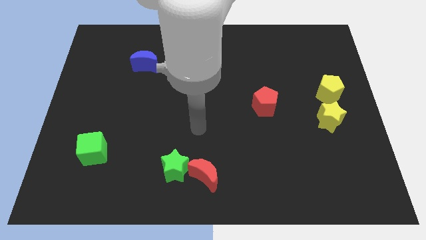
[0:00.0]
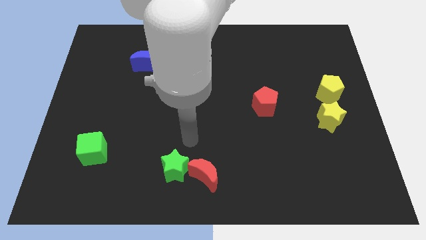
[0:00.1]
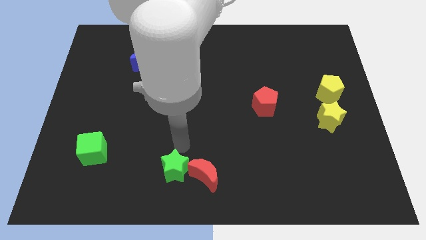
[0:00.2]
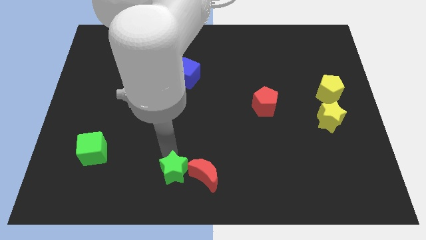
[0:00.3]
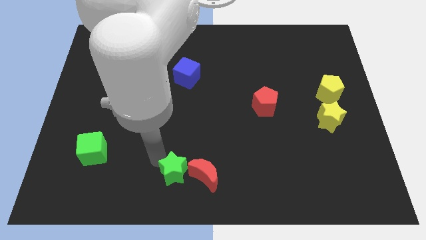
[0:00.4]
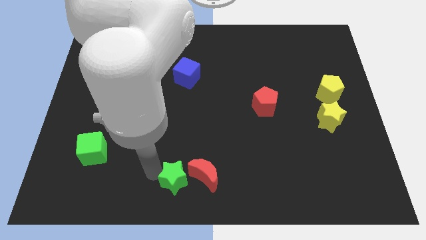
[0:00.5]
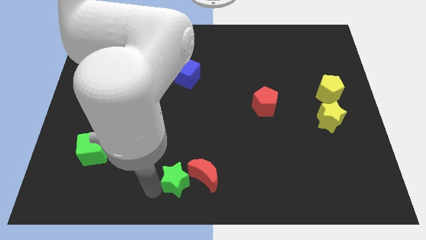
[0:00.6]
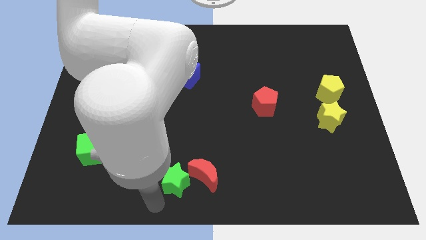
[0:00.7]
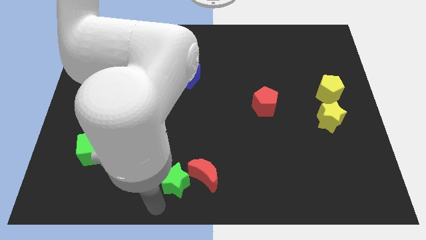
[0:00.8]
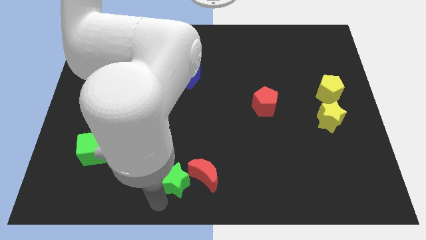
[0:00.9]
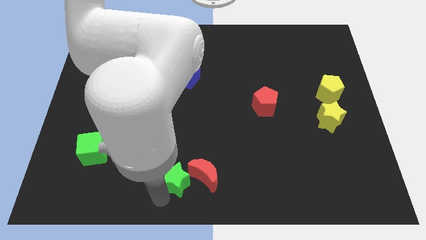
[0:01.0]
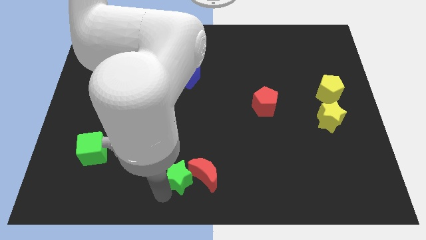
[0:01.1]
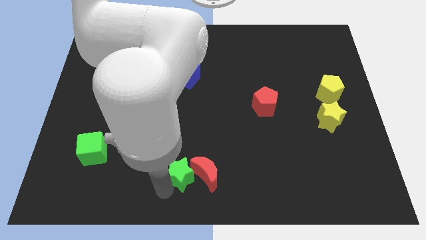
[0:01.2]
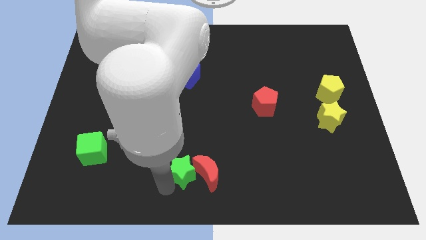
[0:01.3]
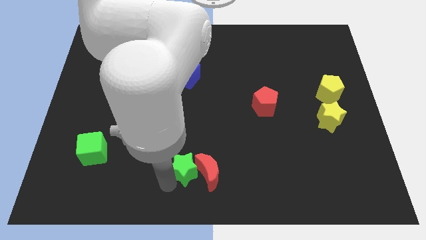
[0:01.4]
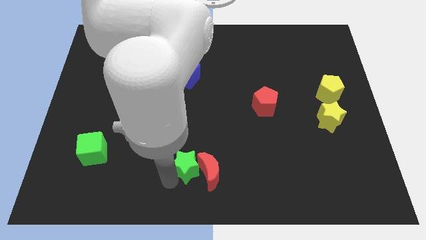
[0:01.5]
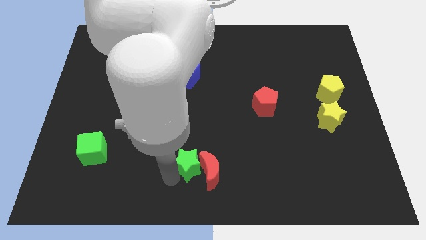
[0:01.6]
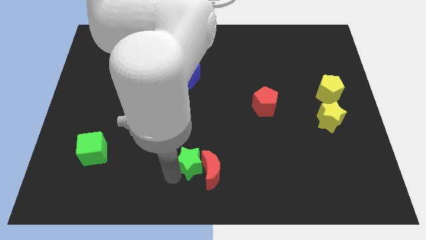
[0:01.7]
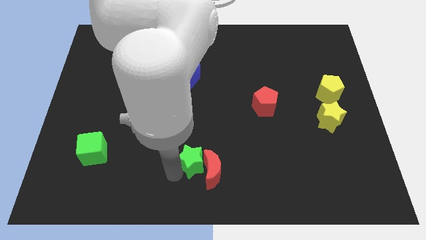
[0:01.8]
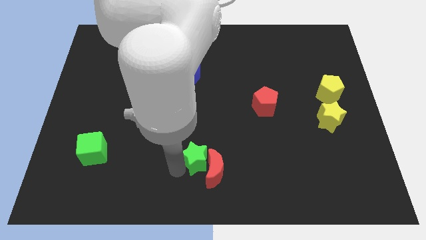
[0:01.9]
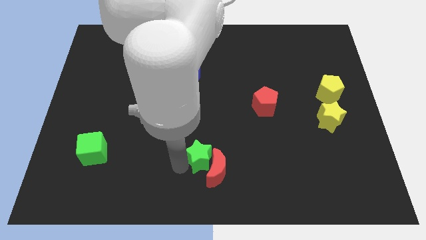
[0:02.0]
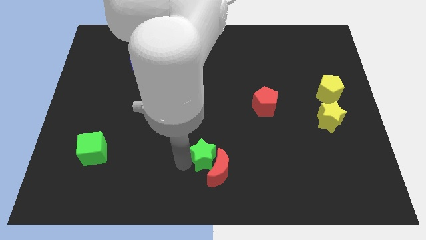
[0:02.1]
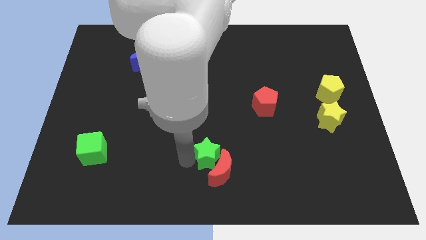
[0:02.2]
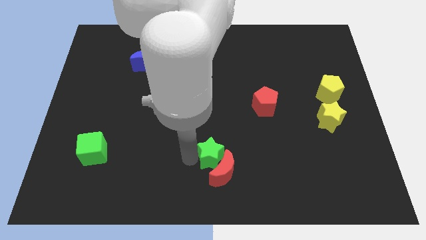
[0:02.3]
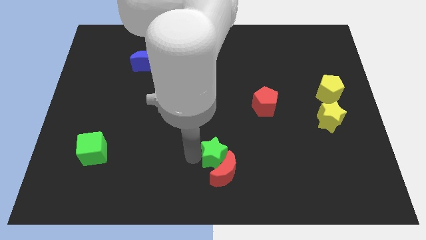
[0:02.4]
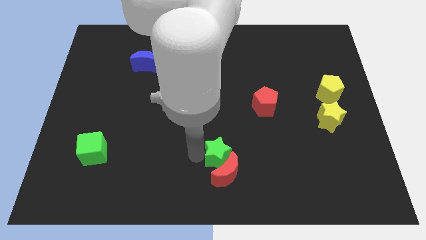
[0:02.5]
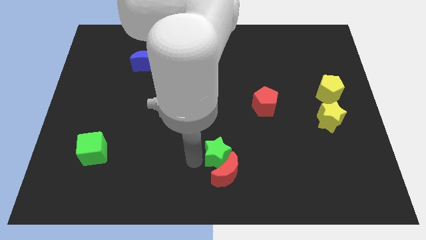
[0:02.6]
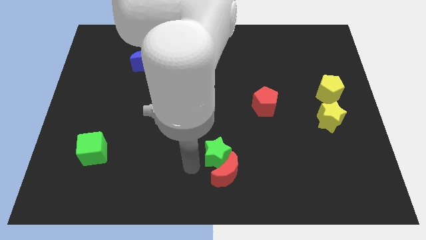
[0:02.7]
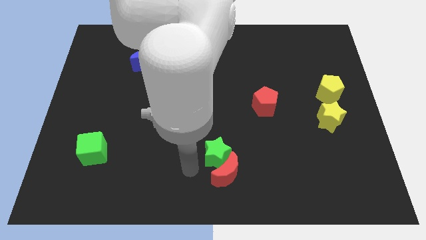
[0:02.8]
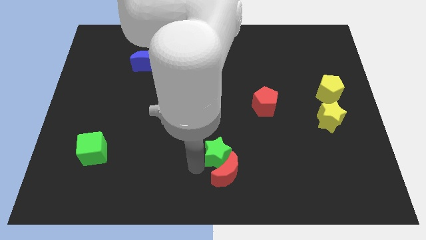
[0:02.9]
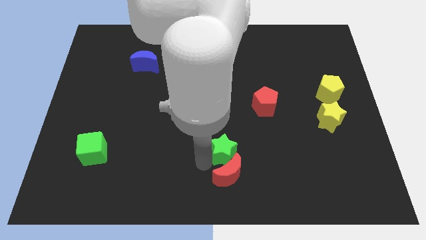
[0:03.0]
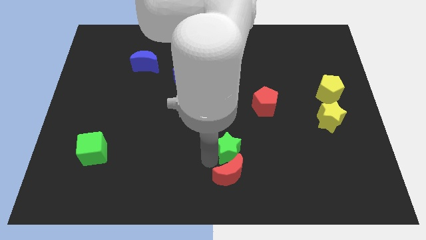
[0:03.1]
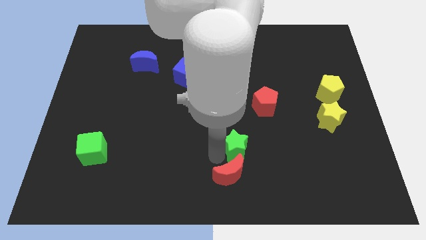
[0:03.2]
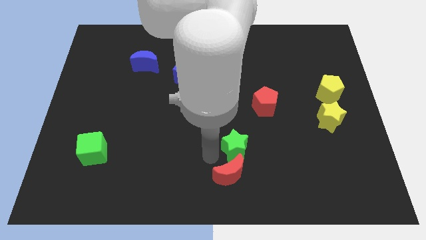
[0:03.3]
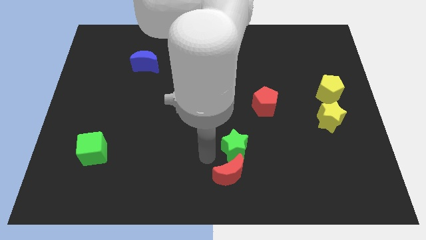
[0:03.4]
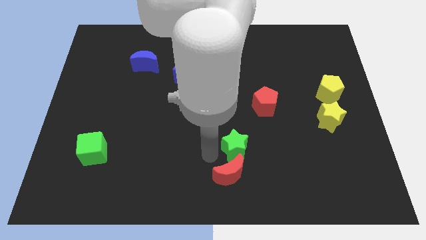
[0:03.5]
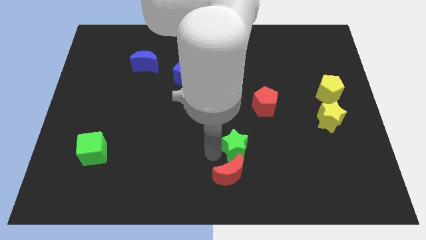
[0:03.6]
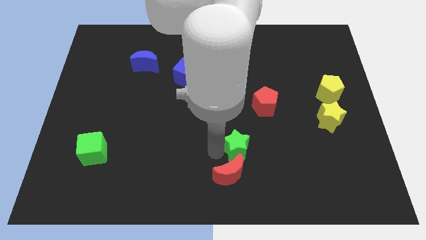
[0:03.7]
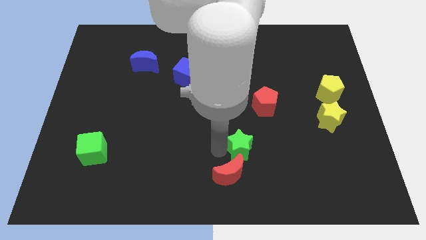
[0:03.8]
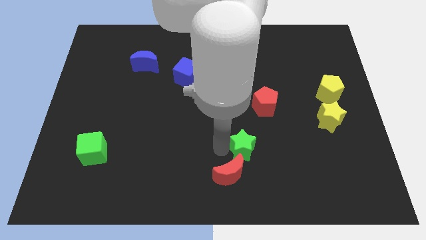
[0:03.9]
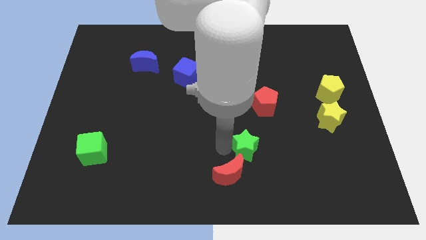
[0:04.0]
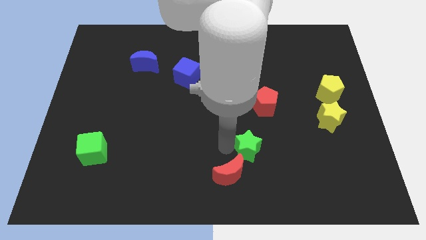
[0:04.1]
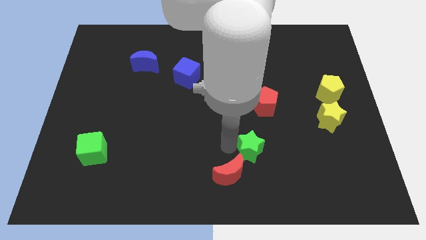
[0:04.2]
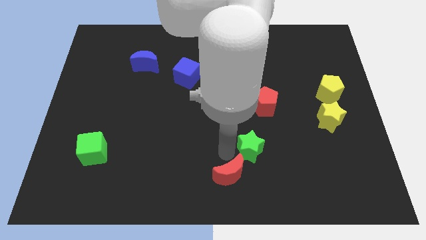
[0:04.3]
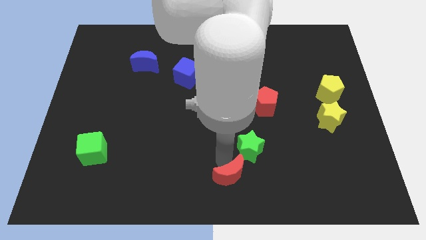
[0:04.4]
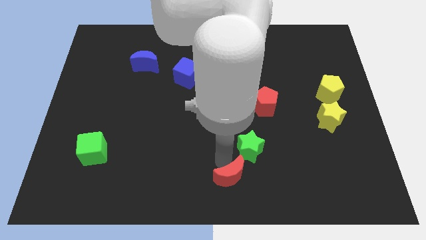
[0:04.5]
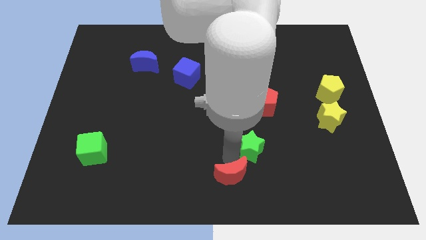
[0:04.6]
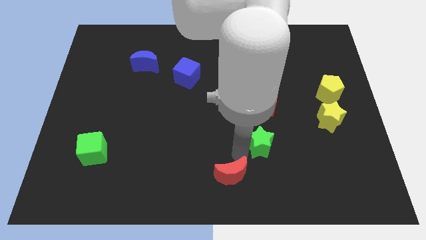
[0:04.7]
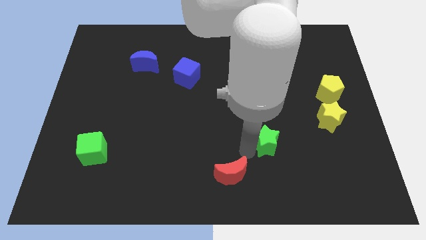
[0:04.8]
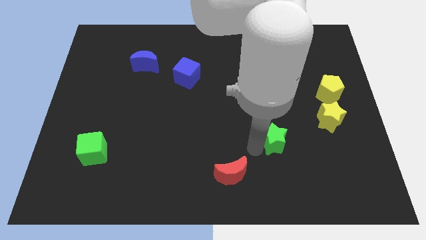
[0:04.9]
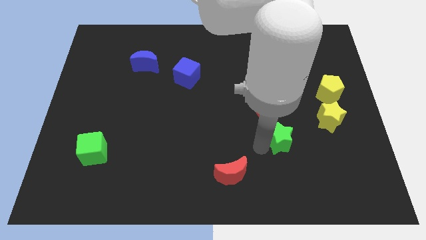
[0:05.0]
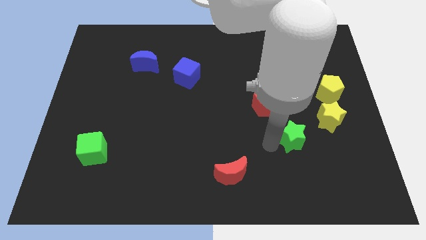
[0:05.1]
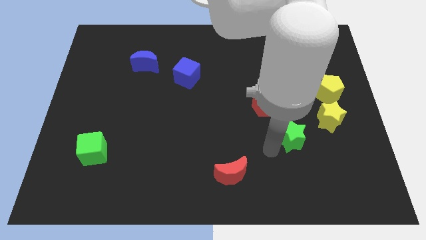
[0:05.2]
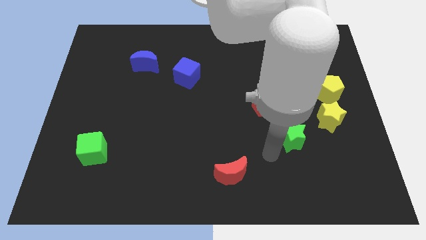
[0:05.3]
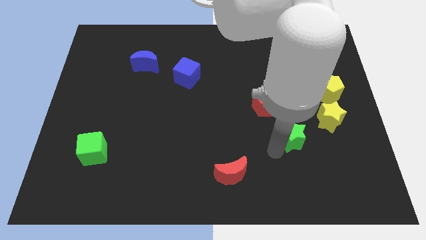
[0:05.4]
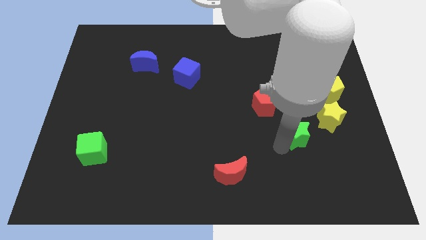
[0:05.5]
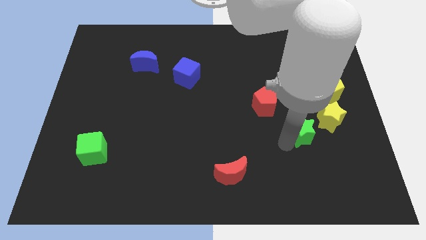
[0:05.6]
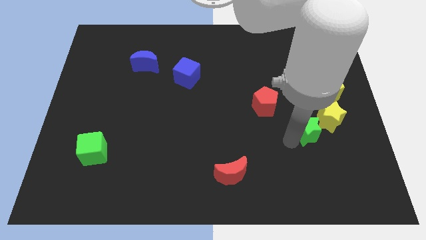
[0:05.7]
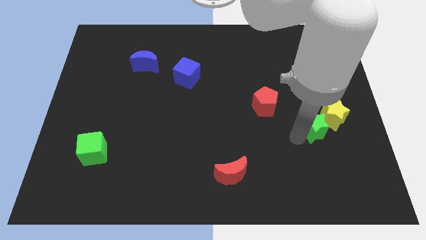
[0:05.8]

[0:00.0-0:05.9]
push the green star next to the yellow star

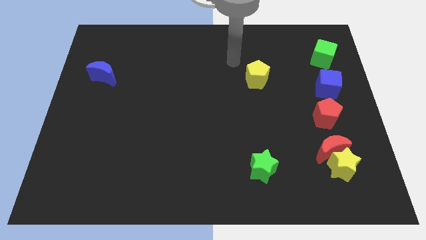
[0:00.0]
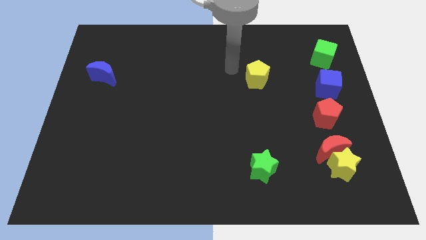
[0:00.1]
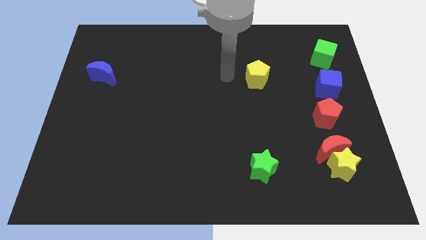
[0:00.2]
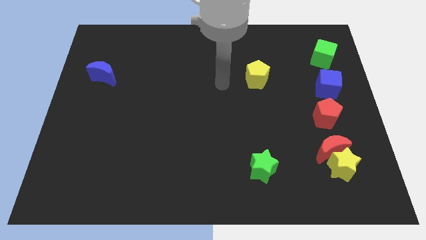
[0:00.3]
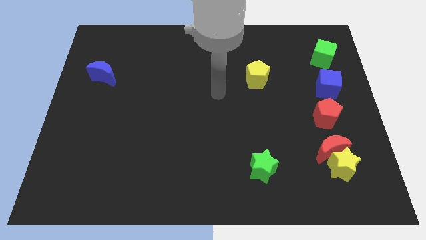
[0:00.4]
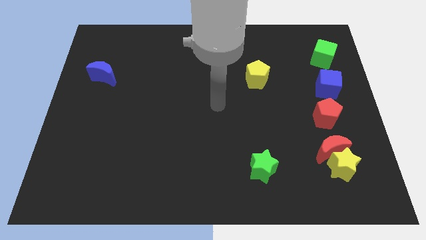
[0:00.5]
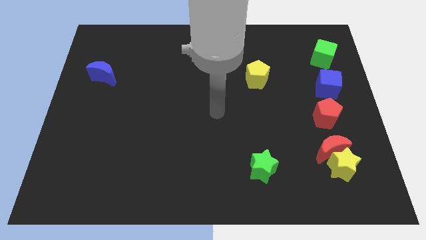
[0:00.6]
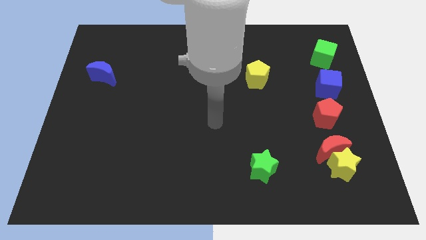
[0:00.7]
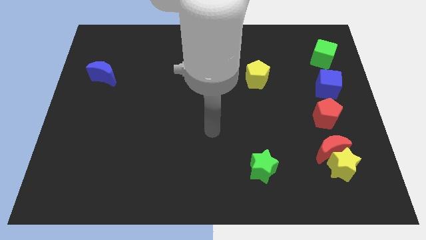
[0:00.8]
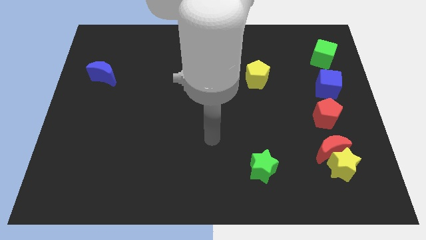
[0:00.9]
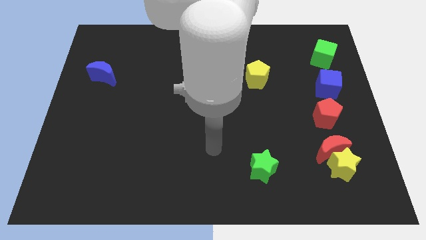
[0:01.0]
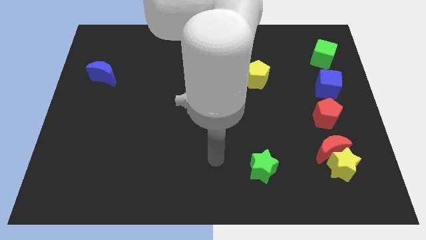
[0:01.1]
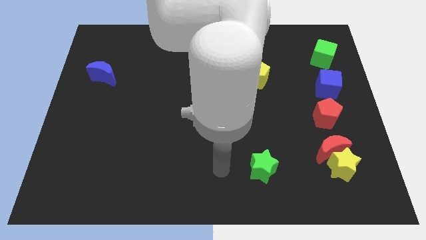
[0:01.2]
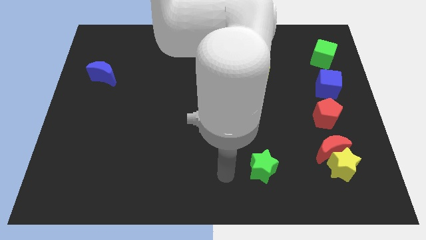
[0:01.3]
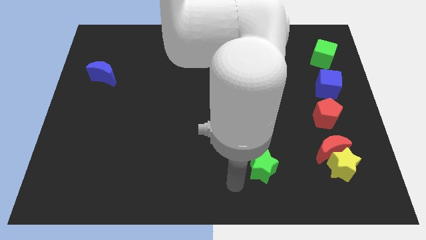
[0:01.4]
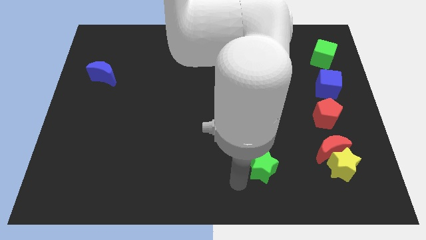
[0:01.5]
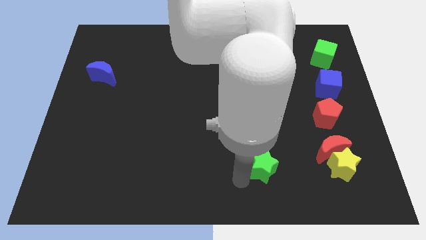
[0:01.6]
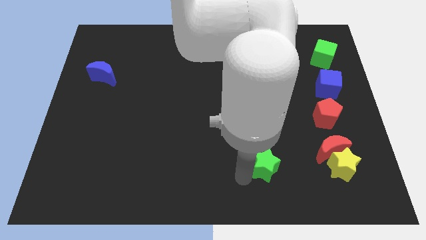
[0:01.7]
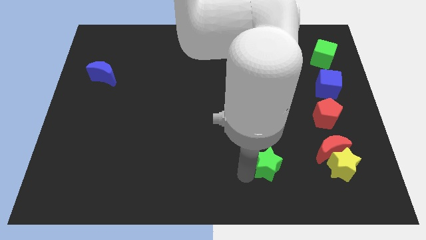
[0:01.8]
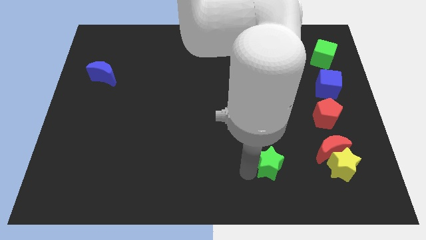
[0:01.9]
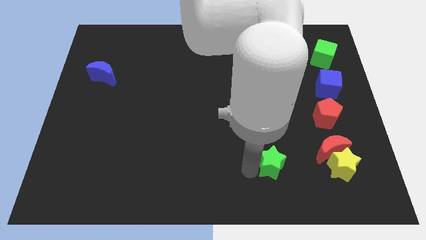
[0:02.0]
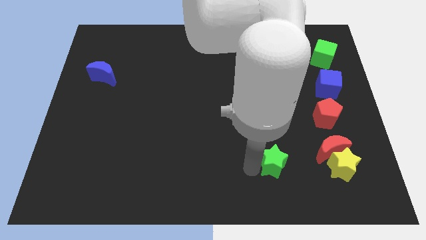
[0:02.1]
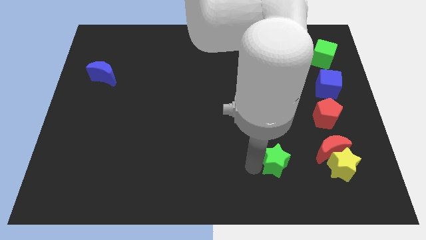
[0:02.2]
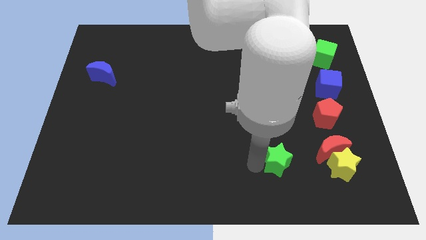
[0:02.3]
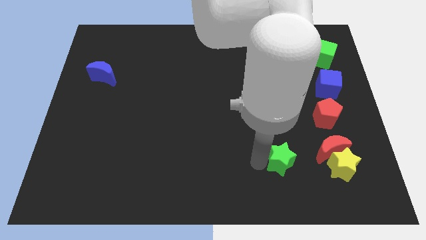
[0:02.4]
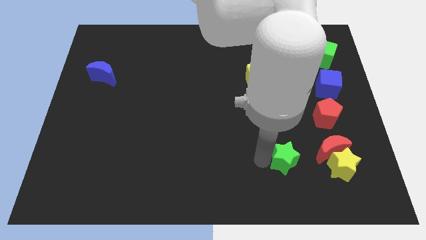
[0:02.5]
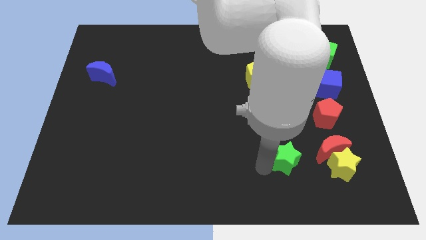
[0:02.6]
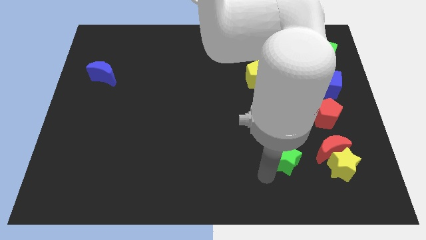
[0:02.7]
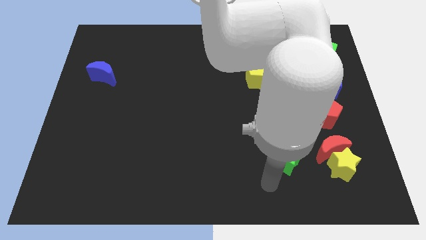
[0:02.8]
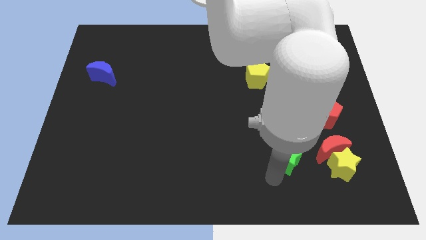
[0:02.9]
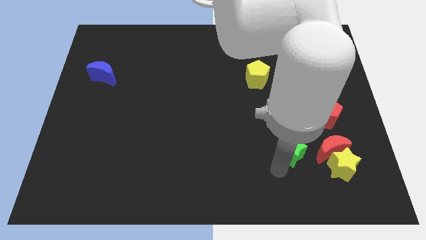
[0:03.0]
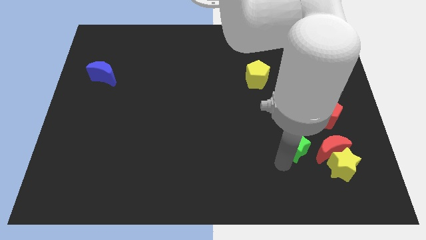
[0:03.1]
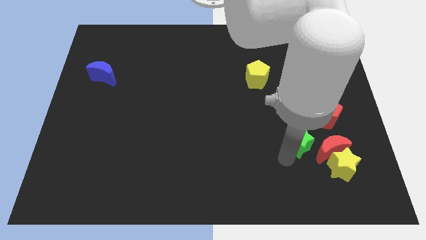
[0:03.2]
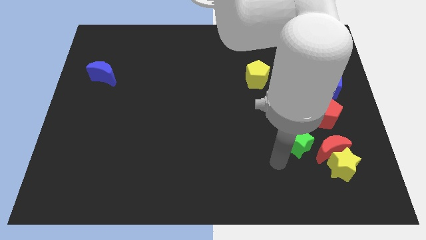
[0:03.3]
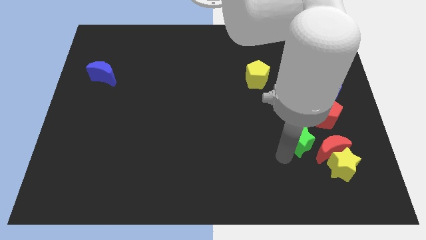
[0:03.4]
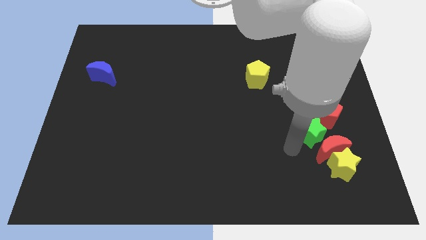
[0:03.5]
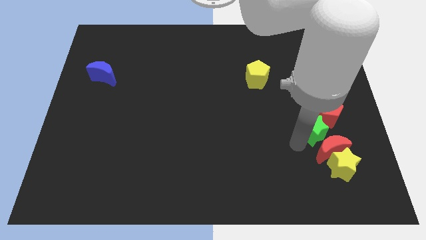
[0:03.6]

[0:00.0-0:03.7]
slide the green star towards the red pentagon
